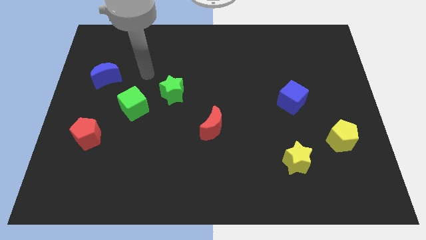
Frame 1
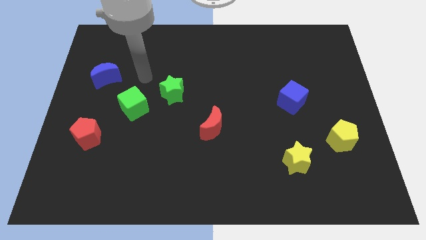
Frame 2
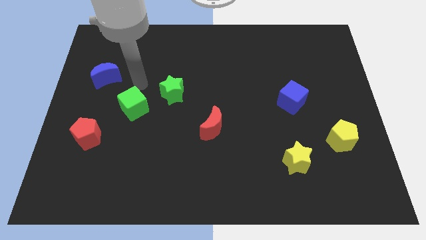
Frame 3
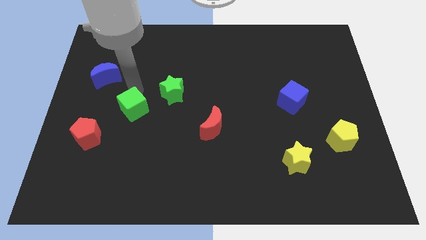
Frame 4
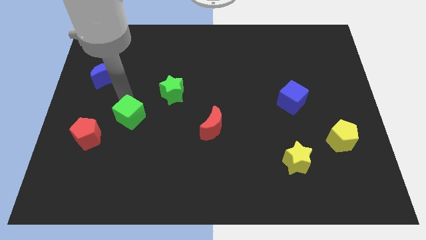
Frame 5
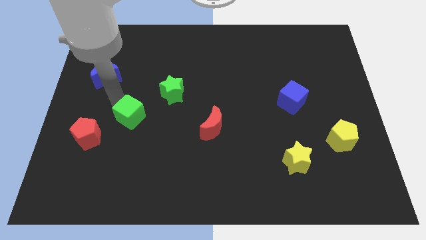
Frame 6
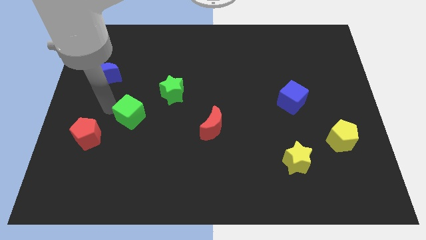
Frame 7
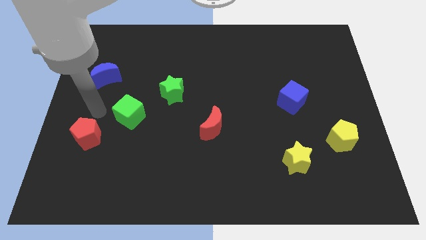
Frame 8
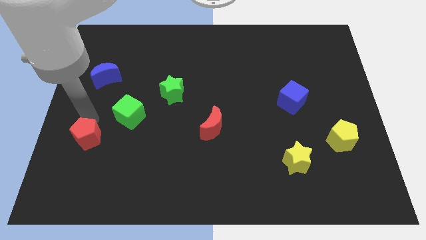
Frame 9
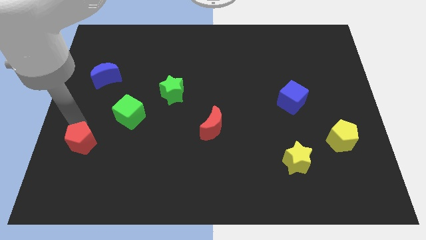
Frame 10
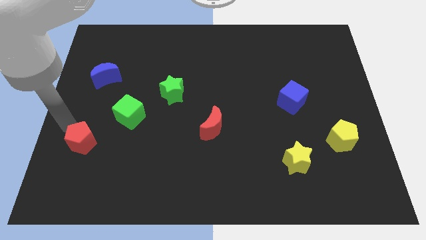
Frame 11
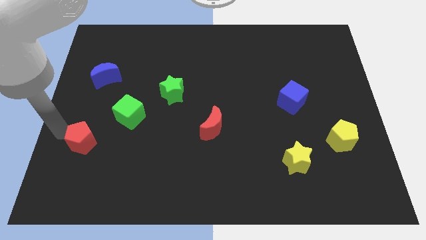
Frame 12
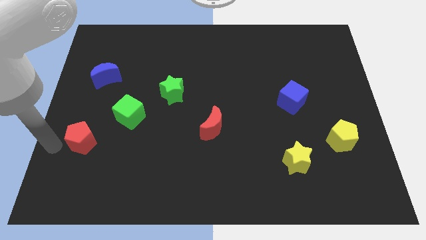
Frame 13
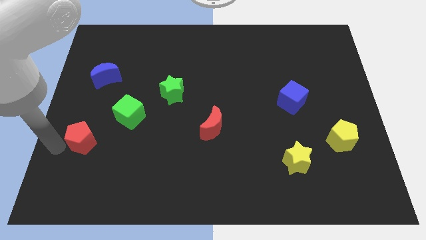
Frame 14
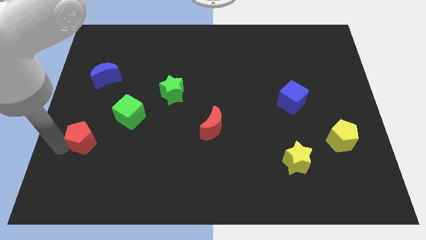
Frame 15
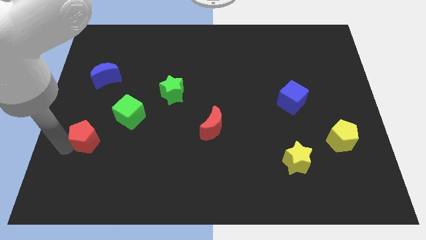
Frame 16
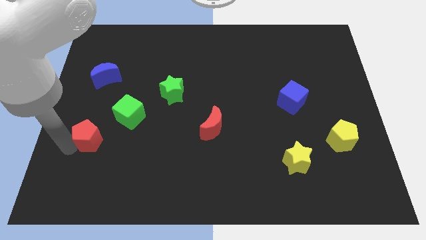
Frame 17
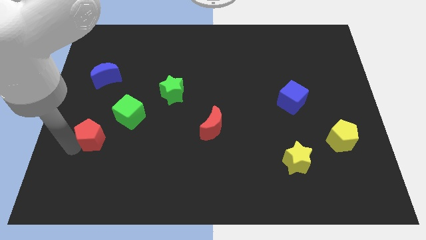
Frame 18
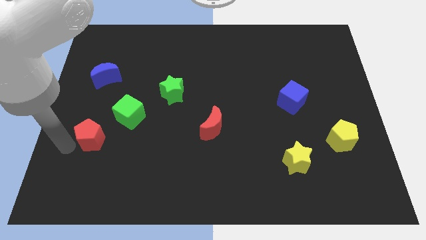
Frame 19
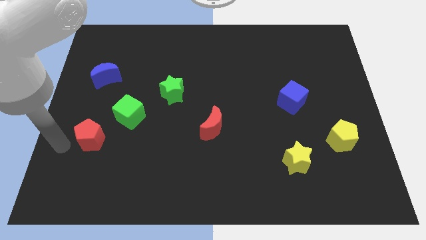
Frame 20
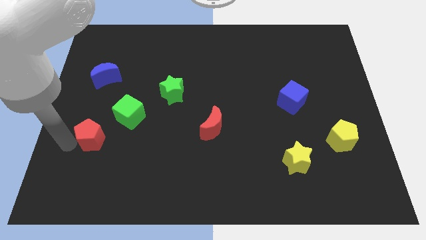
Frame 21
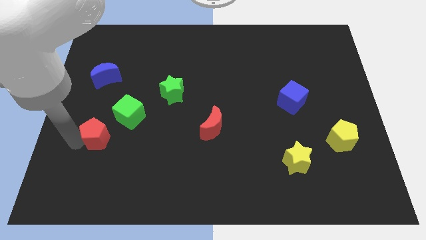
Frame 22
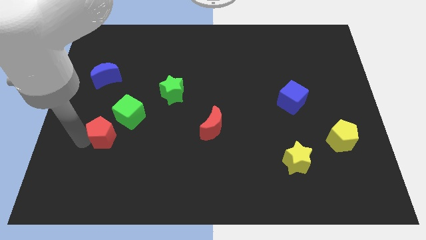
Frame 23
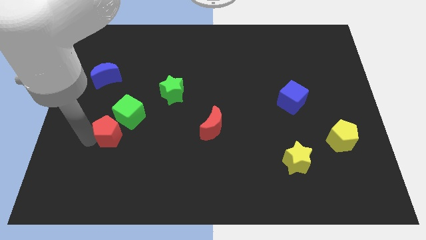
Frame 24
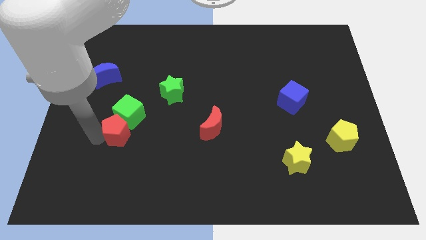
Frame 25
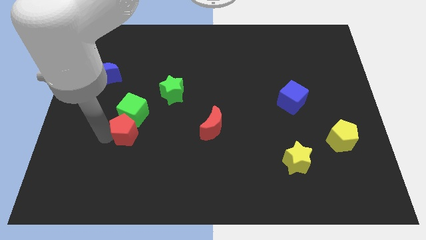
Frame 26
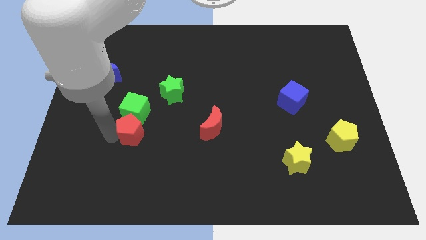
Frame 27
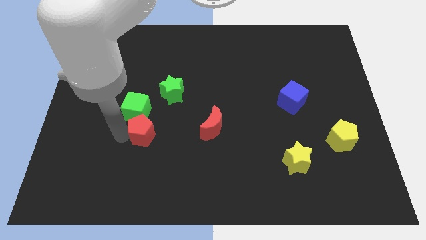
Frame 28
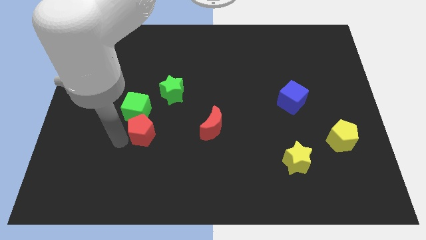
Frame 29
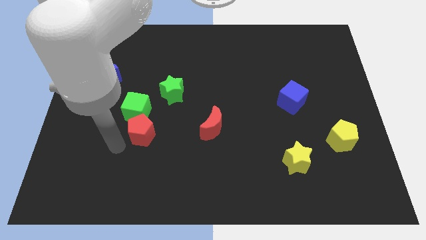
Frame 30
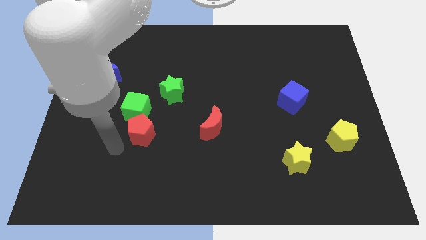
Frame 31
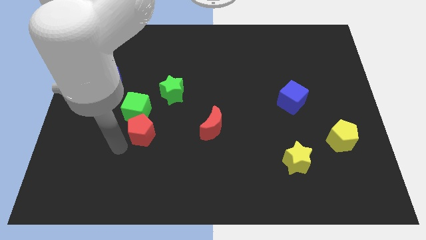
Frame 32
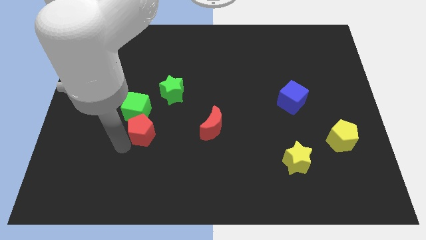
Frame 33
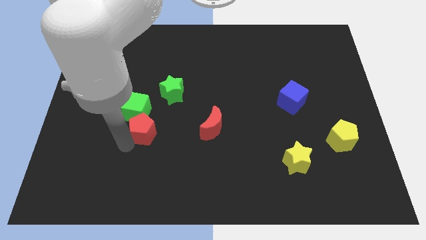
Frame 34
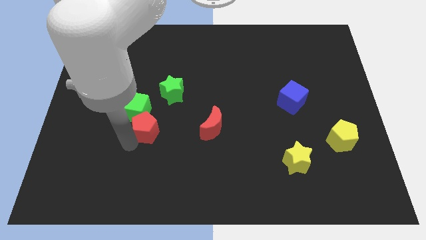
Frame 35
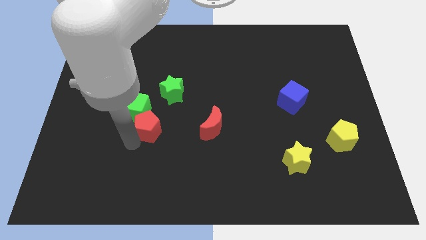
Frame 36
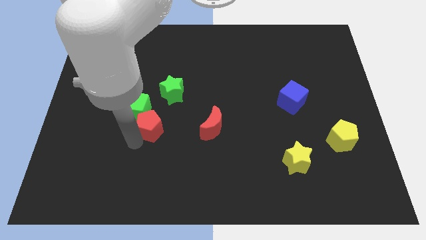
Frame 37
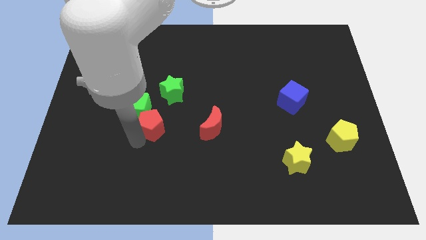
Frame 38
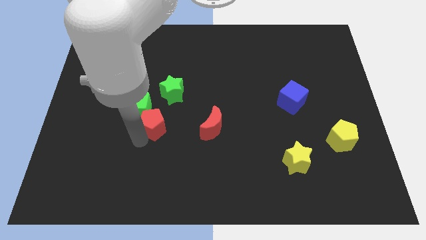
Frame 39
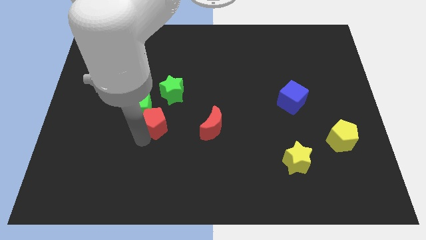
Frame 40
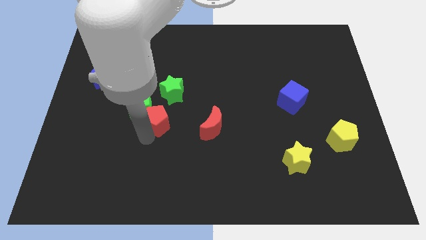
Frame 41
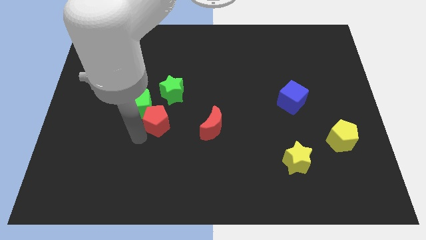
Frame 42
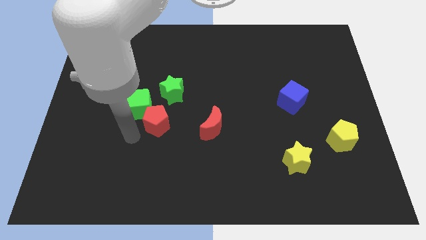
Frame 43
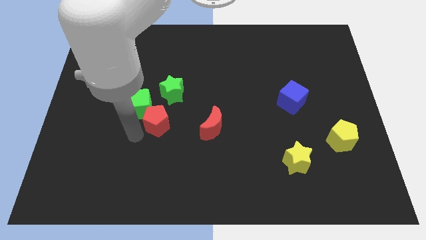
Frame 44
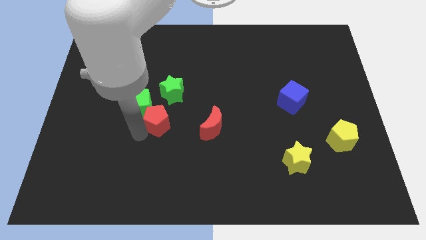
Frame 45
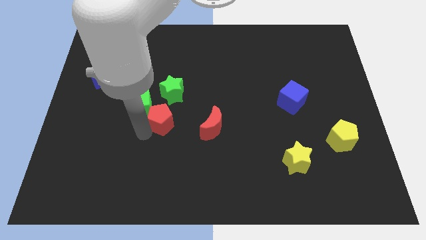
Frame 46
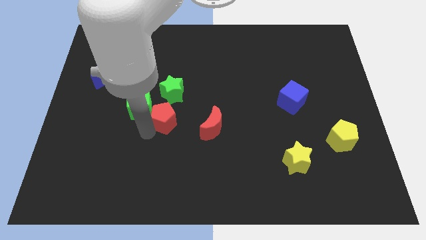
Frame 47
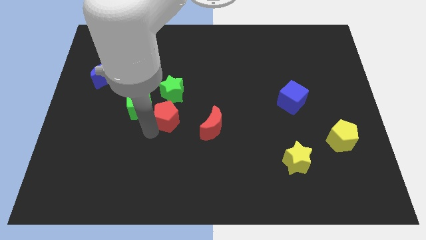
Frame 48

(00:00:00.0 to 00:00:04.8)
push the red pentagon to the center
